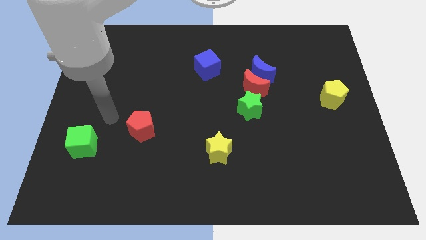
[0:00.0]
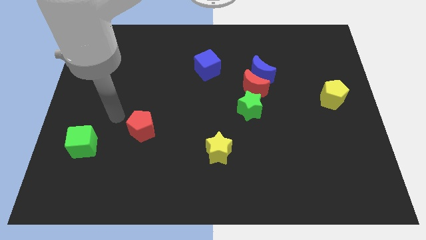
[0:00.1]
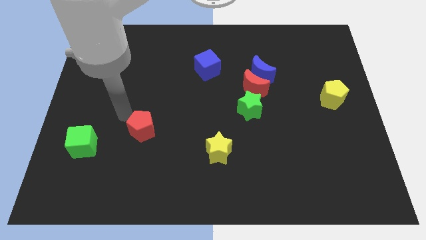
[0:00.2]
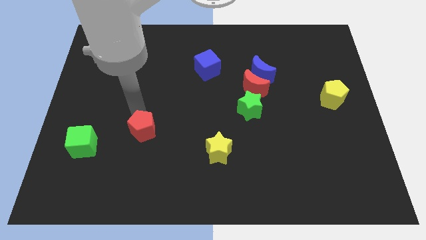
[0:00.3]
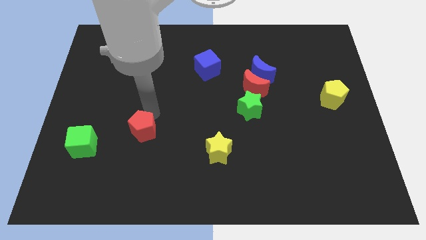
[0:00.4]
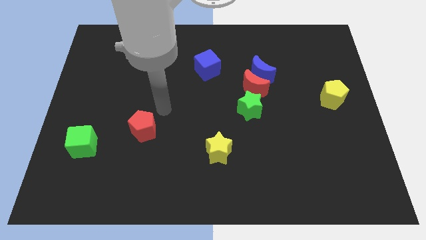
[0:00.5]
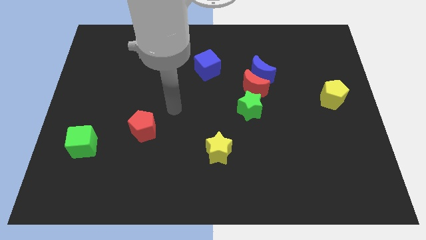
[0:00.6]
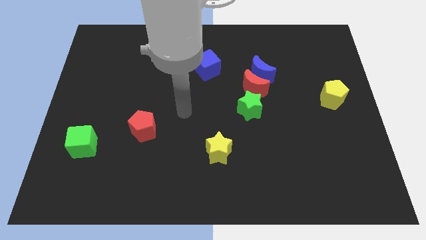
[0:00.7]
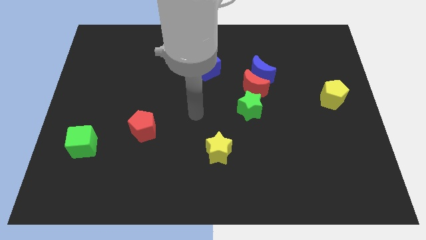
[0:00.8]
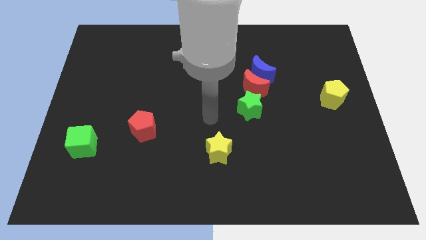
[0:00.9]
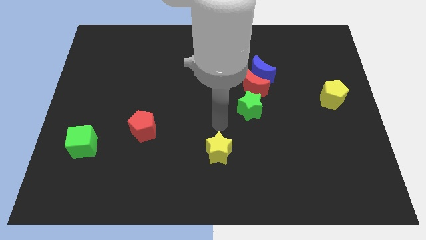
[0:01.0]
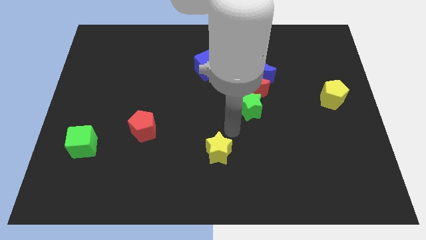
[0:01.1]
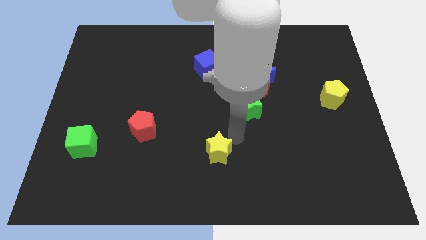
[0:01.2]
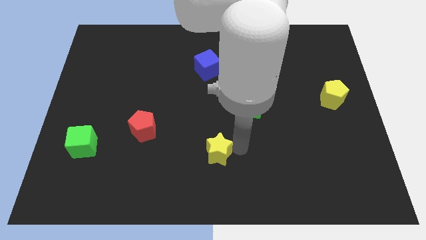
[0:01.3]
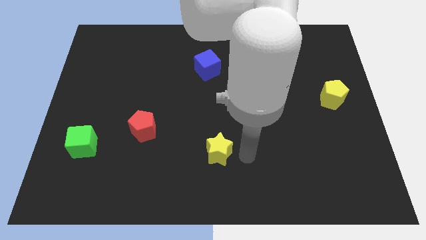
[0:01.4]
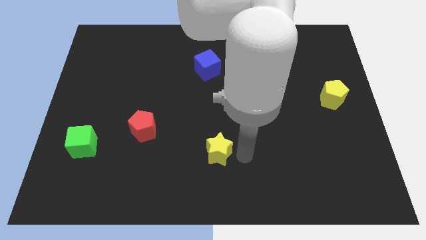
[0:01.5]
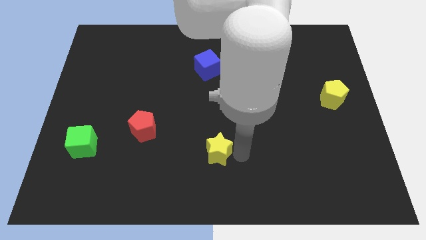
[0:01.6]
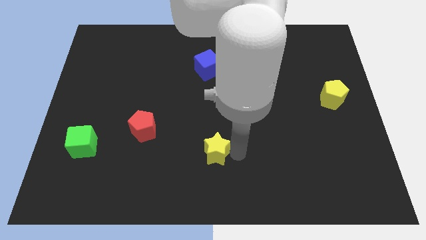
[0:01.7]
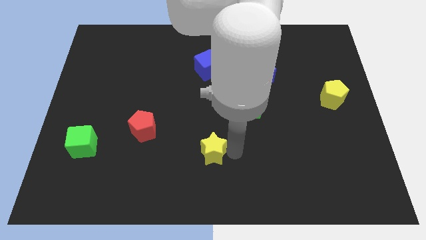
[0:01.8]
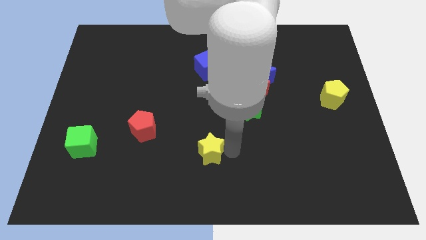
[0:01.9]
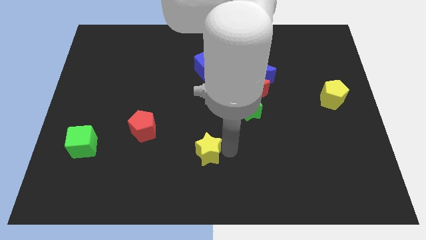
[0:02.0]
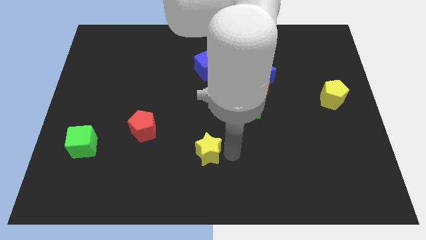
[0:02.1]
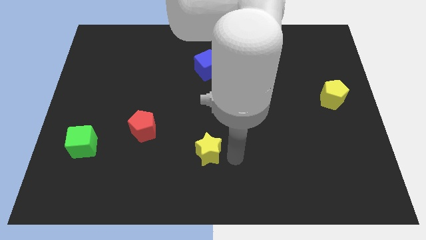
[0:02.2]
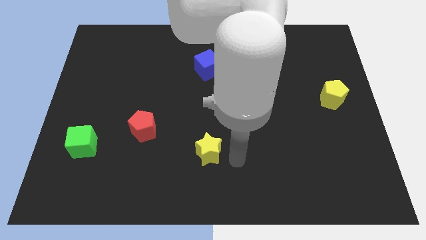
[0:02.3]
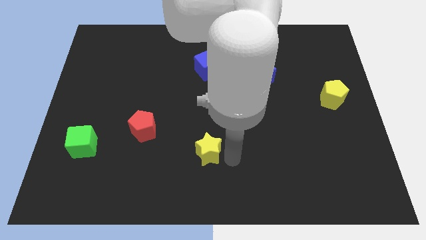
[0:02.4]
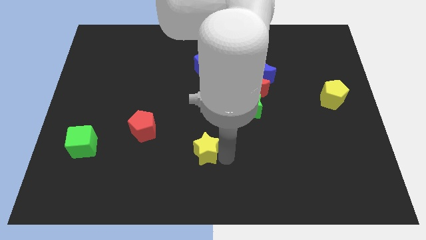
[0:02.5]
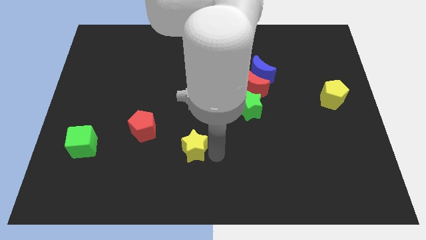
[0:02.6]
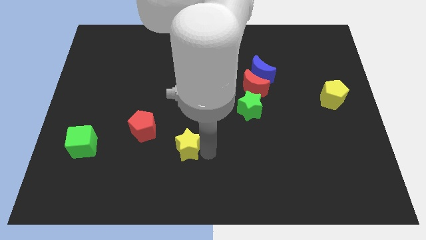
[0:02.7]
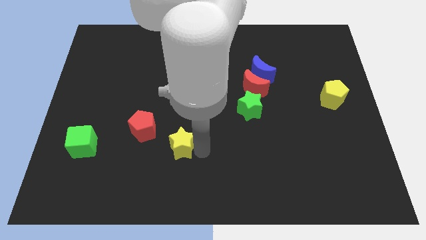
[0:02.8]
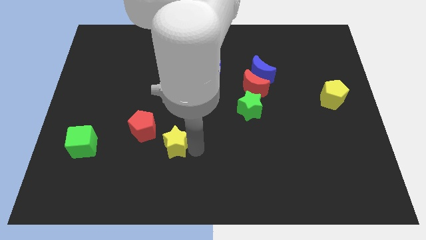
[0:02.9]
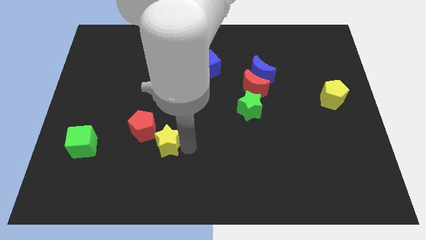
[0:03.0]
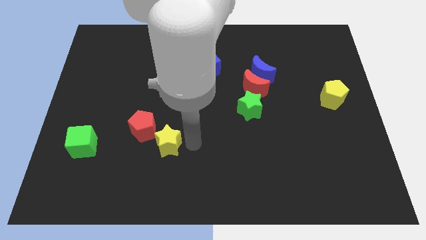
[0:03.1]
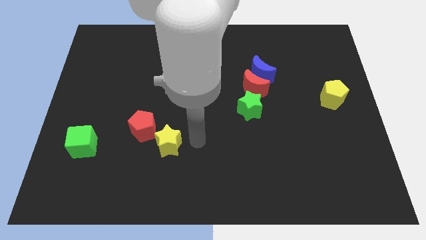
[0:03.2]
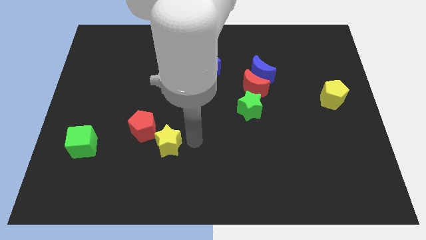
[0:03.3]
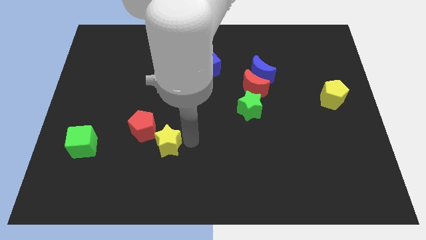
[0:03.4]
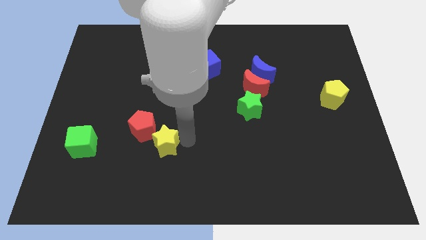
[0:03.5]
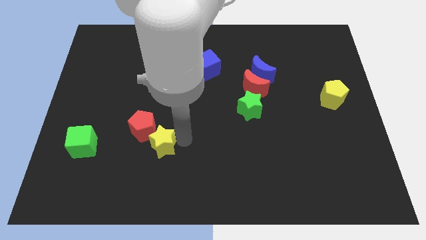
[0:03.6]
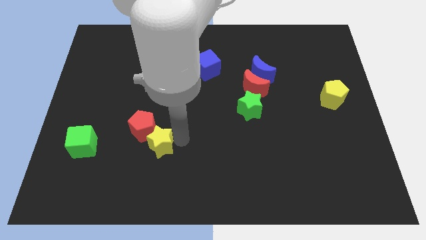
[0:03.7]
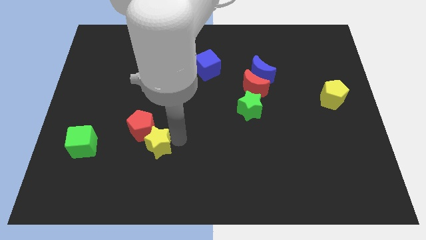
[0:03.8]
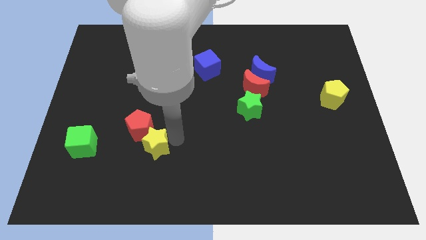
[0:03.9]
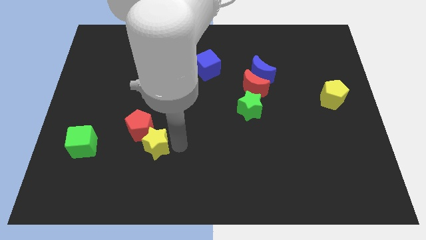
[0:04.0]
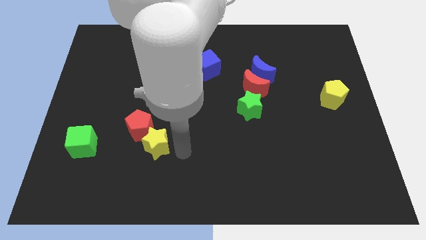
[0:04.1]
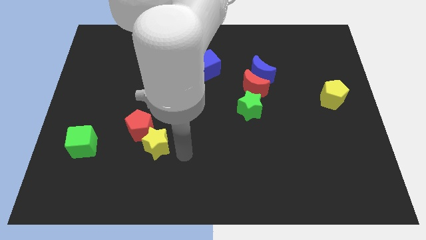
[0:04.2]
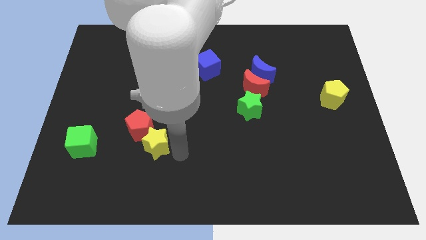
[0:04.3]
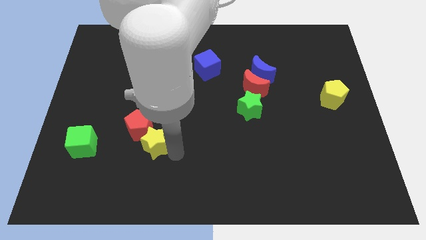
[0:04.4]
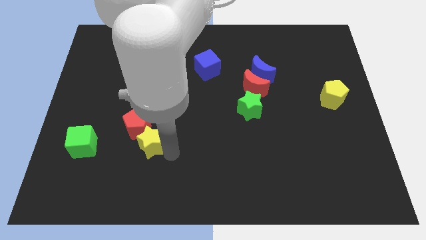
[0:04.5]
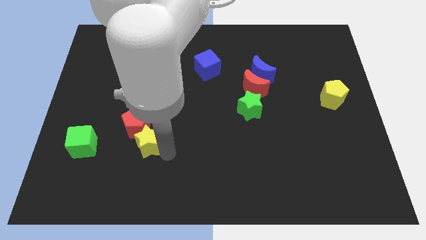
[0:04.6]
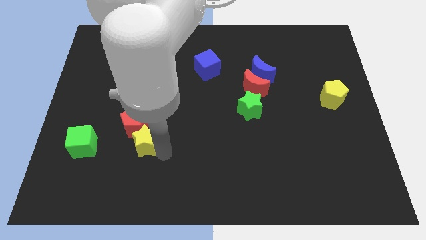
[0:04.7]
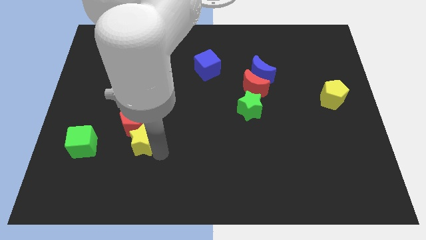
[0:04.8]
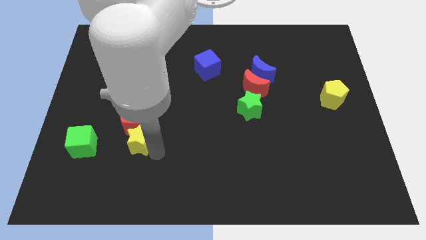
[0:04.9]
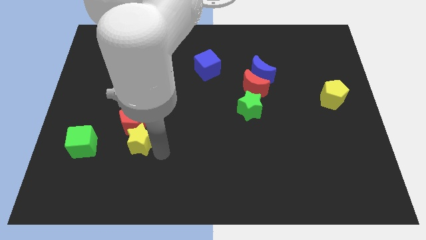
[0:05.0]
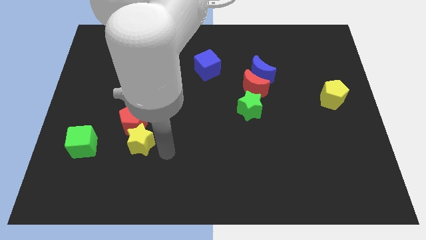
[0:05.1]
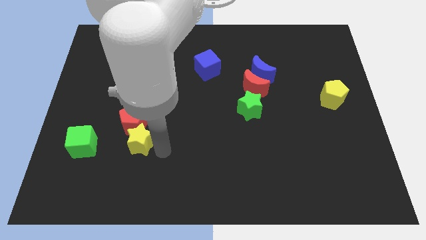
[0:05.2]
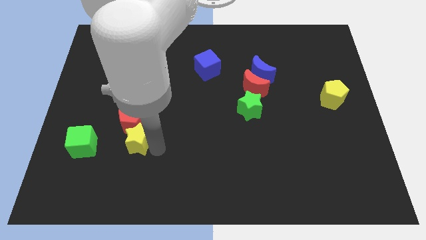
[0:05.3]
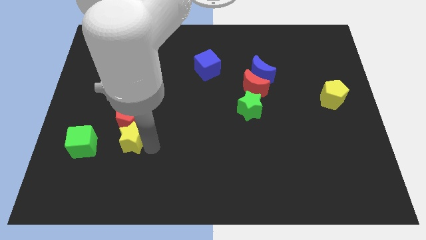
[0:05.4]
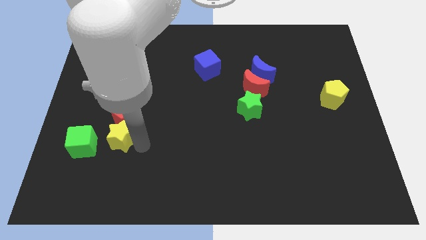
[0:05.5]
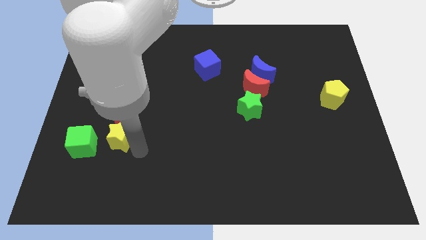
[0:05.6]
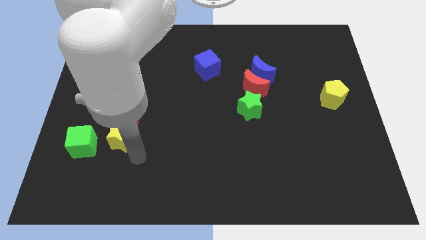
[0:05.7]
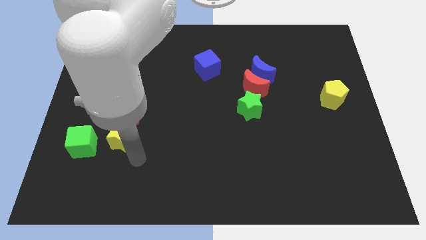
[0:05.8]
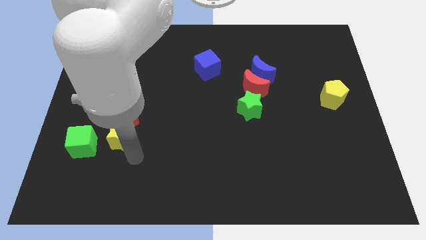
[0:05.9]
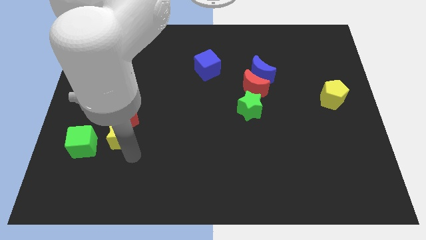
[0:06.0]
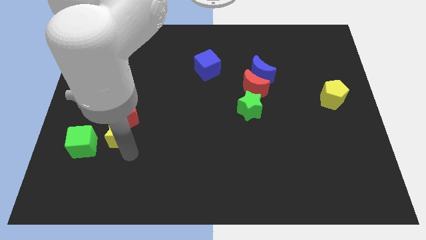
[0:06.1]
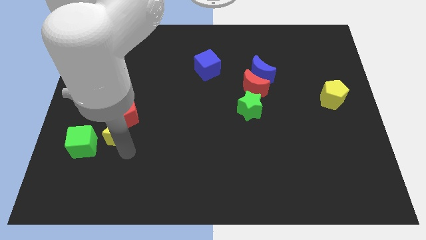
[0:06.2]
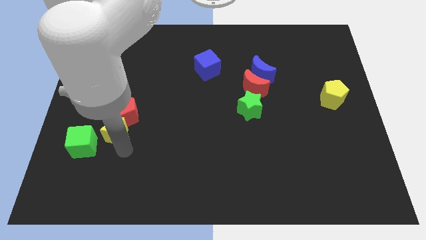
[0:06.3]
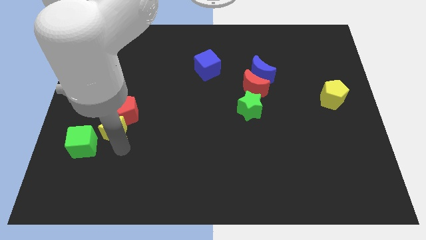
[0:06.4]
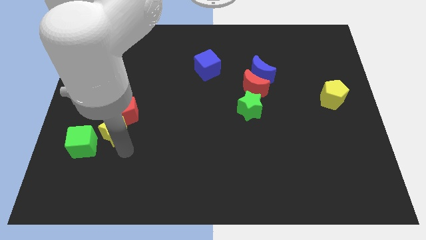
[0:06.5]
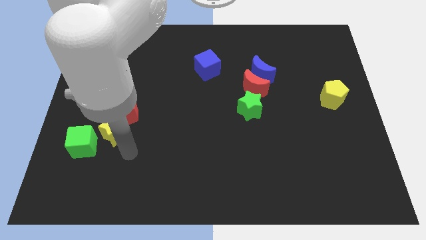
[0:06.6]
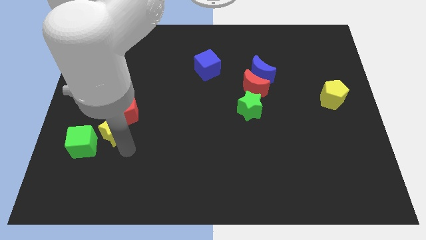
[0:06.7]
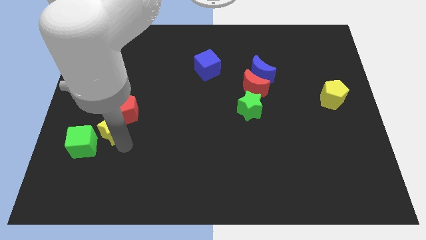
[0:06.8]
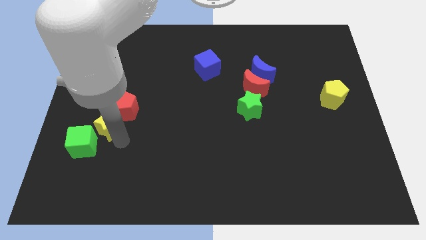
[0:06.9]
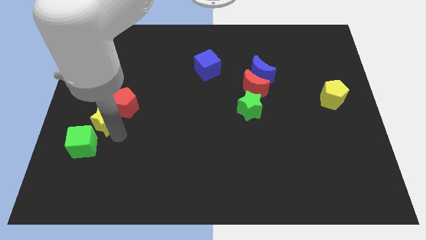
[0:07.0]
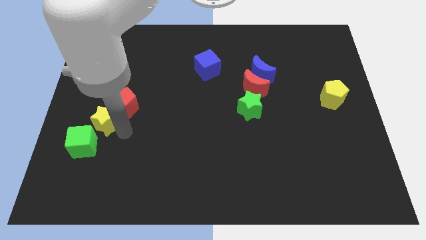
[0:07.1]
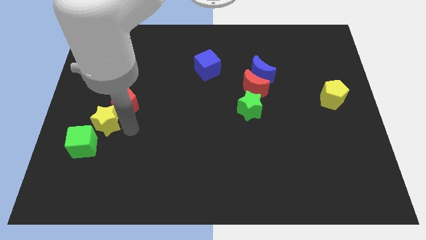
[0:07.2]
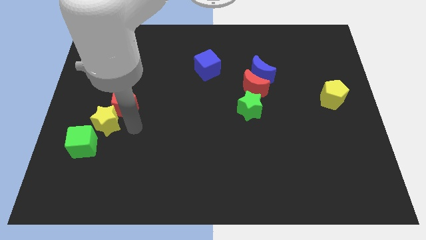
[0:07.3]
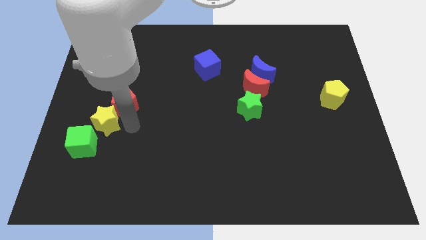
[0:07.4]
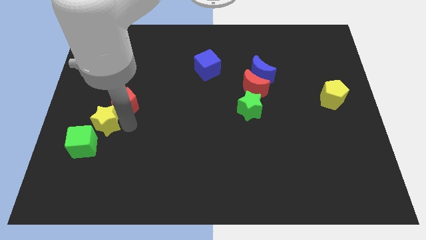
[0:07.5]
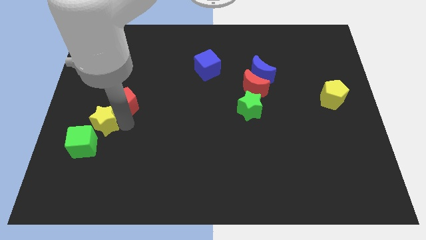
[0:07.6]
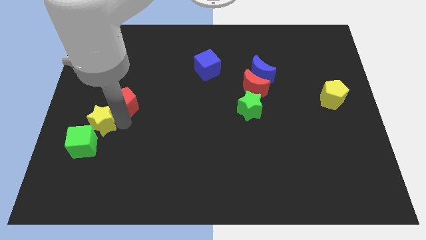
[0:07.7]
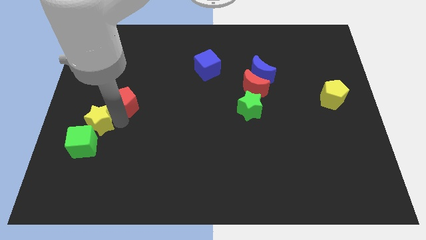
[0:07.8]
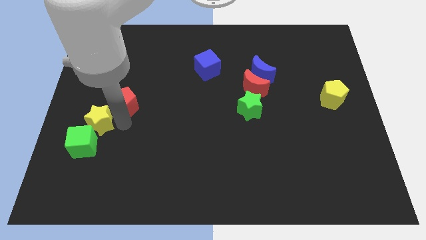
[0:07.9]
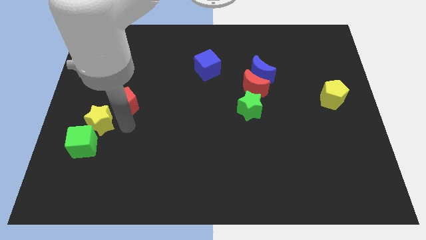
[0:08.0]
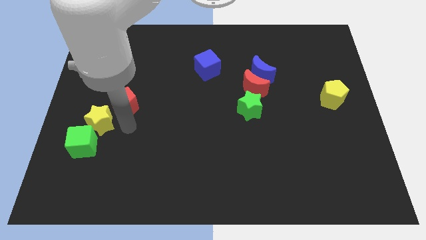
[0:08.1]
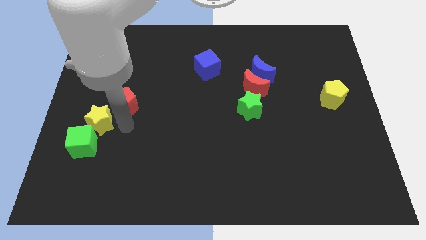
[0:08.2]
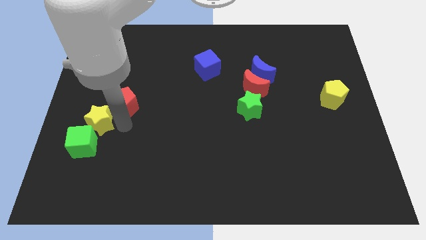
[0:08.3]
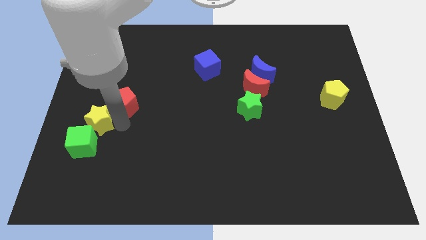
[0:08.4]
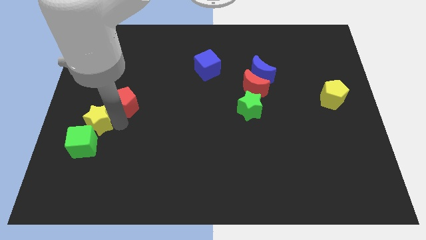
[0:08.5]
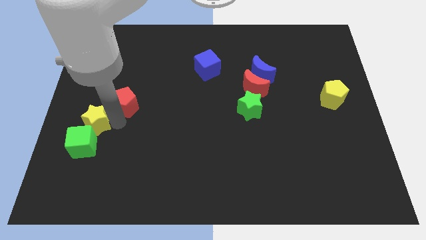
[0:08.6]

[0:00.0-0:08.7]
push the yellow star to the left side of the board
